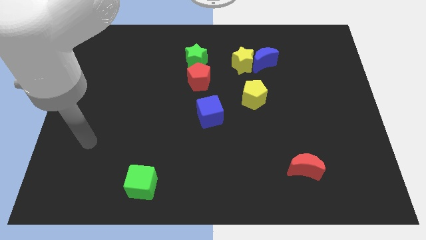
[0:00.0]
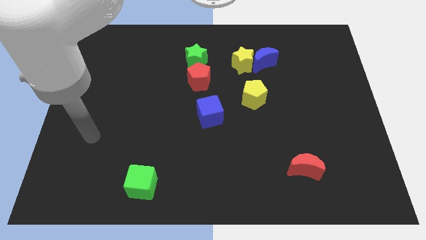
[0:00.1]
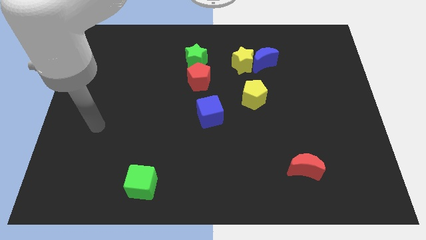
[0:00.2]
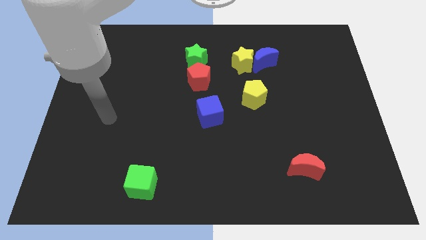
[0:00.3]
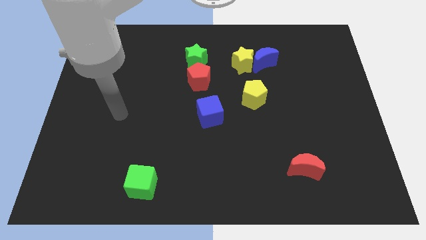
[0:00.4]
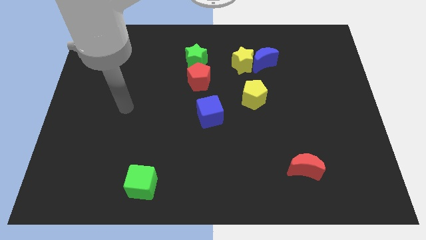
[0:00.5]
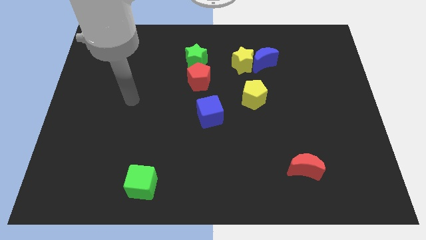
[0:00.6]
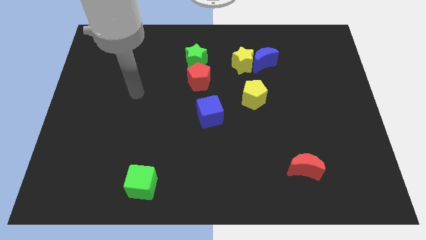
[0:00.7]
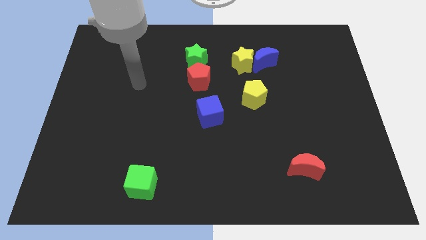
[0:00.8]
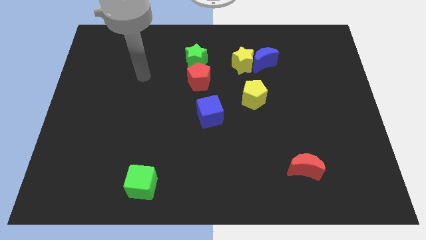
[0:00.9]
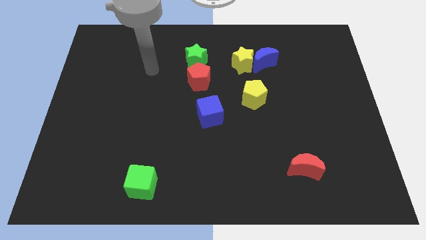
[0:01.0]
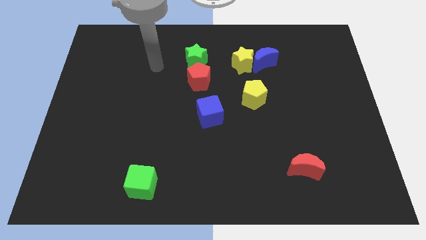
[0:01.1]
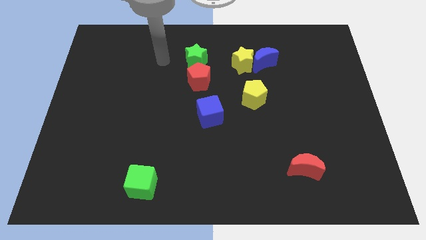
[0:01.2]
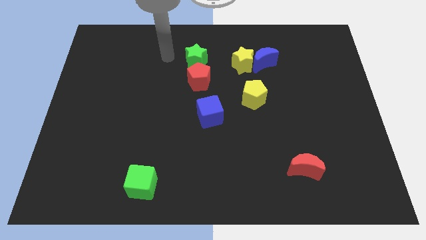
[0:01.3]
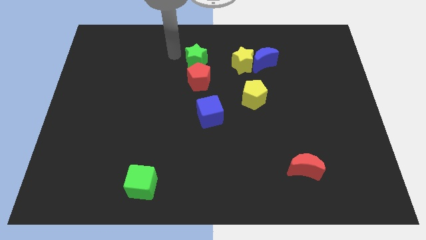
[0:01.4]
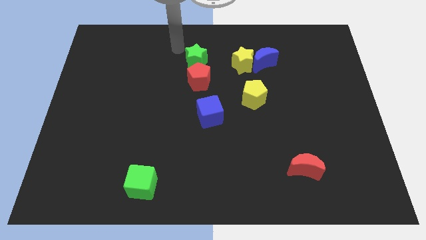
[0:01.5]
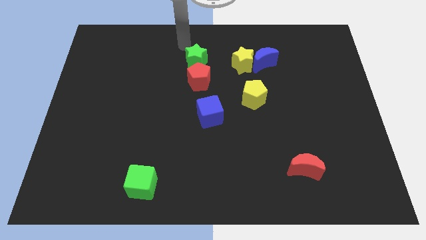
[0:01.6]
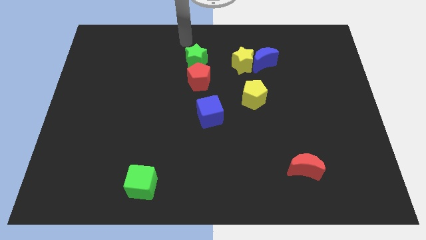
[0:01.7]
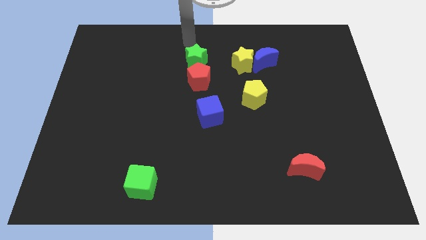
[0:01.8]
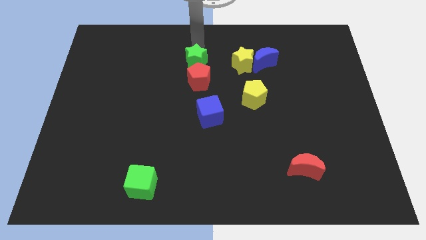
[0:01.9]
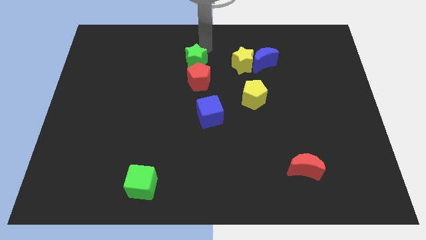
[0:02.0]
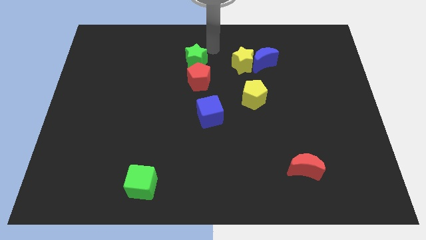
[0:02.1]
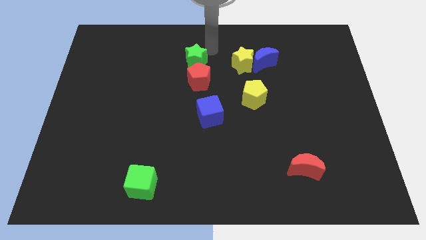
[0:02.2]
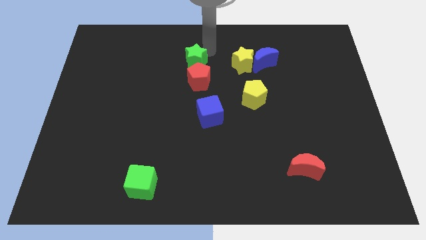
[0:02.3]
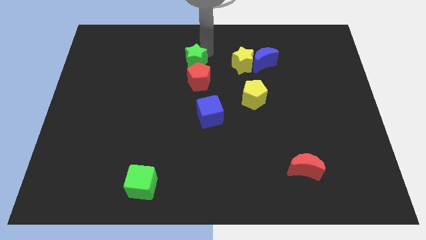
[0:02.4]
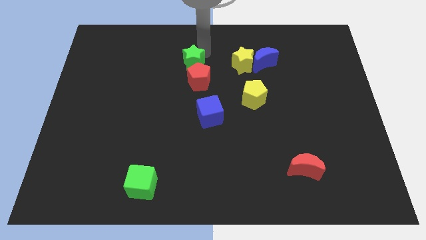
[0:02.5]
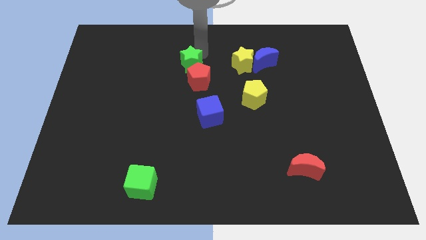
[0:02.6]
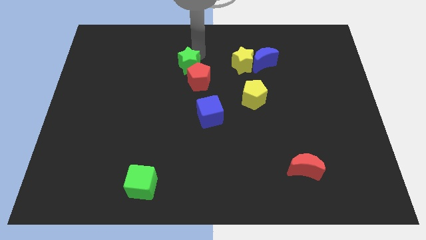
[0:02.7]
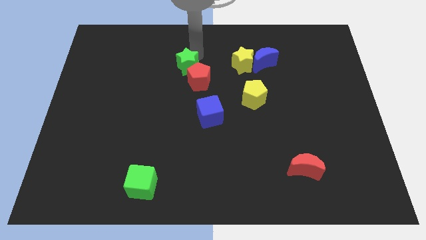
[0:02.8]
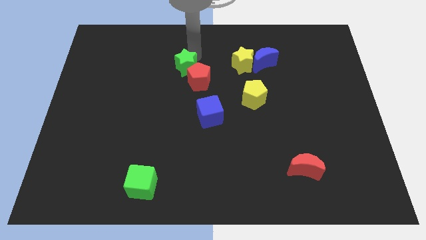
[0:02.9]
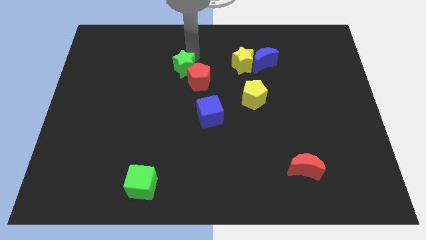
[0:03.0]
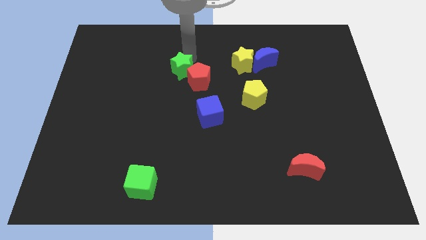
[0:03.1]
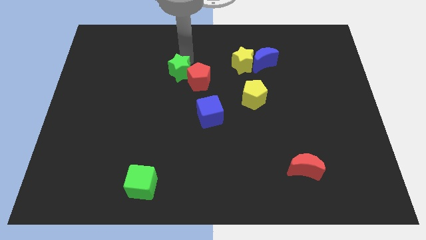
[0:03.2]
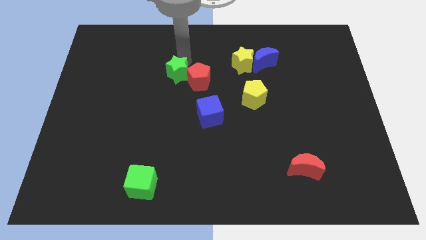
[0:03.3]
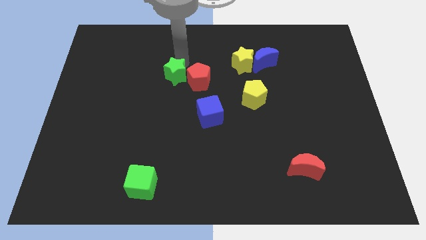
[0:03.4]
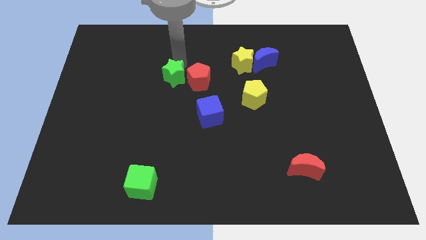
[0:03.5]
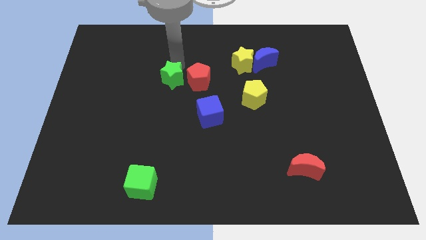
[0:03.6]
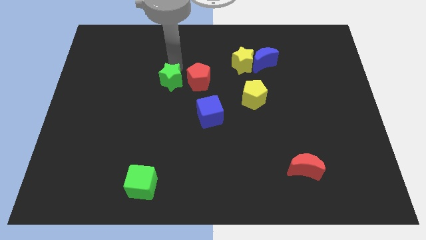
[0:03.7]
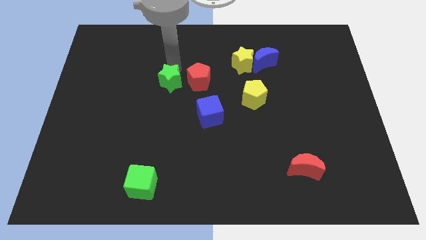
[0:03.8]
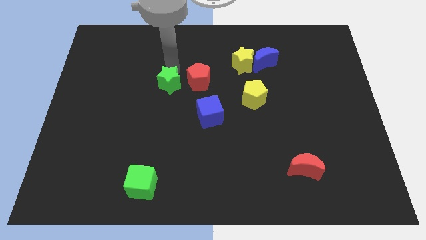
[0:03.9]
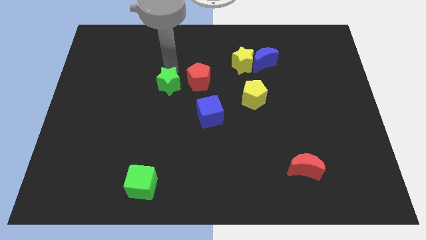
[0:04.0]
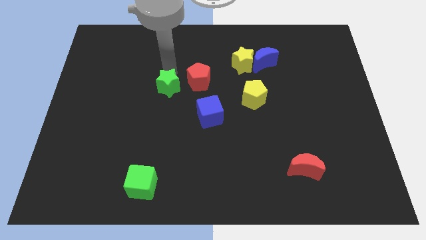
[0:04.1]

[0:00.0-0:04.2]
slightly slide the green star downwards

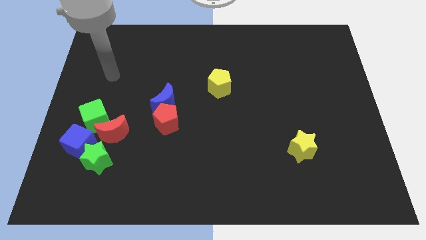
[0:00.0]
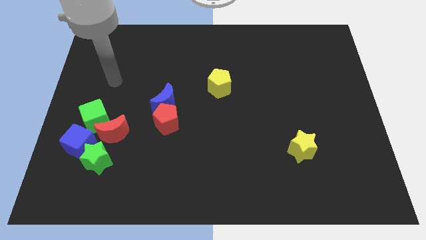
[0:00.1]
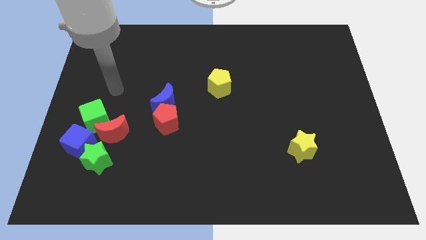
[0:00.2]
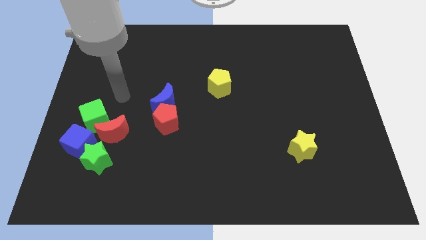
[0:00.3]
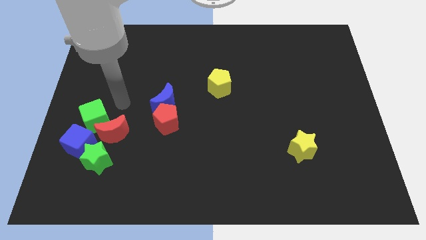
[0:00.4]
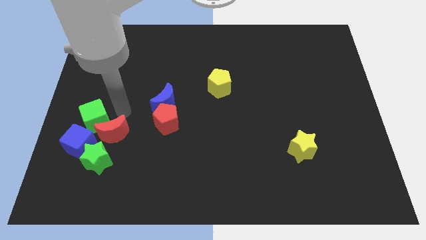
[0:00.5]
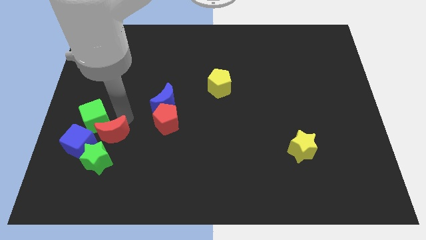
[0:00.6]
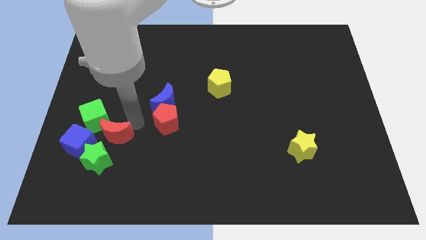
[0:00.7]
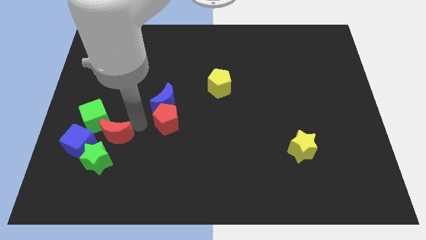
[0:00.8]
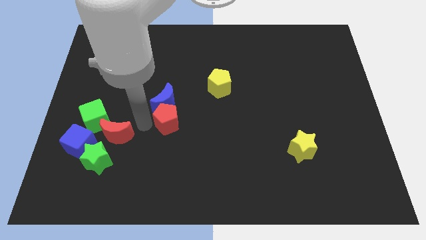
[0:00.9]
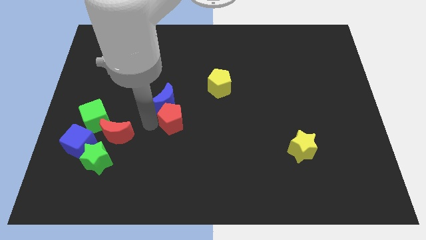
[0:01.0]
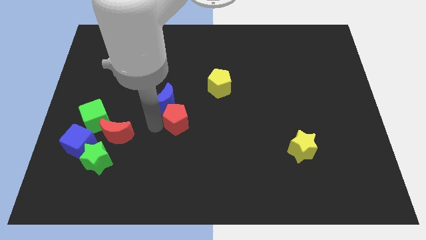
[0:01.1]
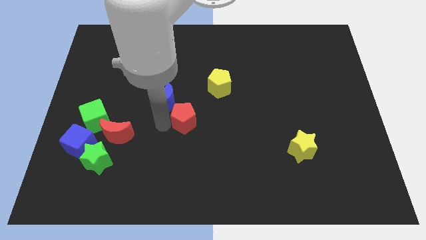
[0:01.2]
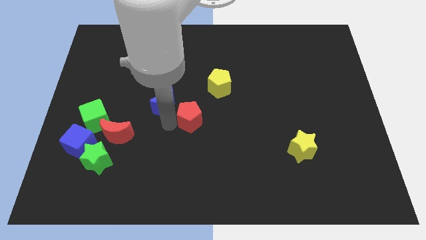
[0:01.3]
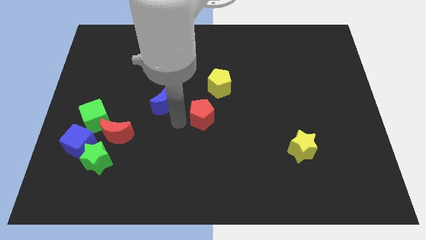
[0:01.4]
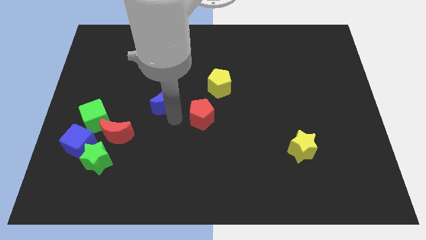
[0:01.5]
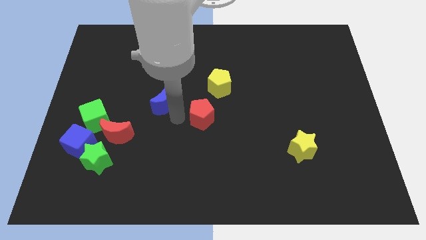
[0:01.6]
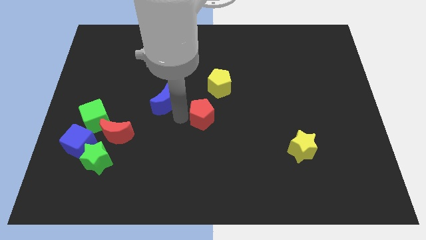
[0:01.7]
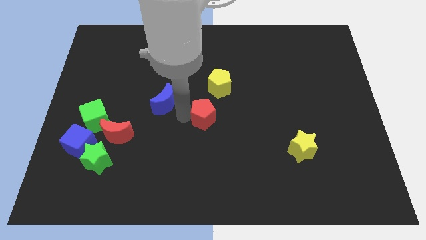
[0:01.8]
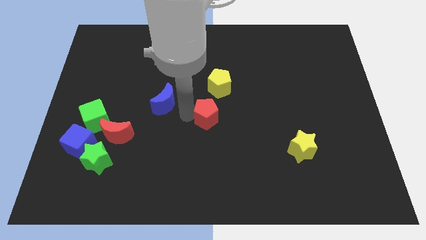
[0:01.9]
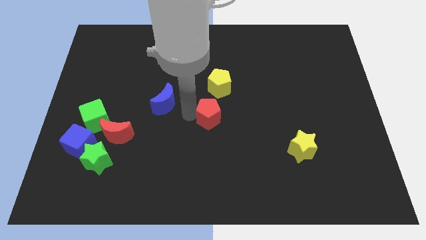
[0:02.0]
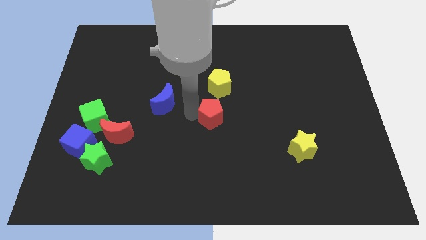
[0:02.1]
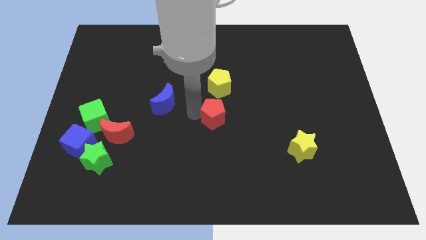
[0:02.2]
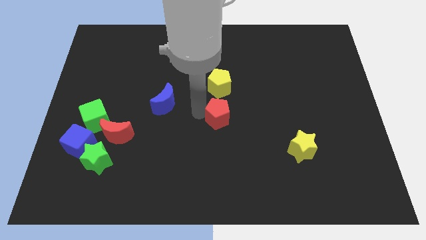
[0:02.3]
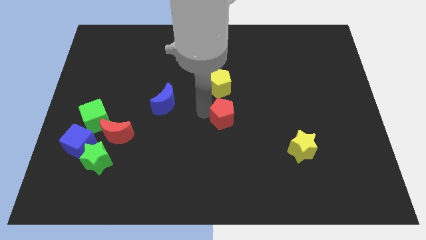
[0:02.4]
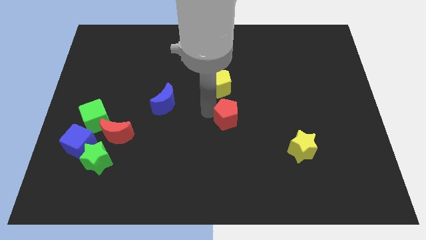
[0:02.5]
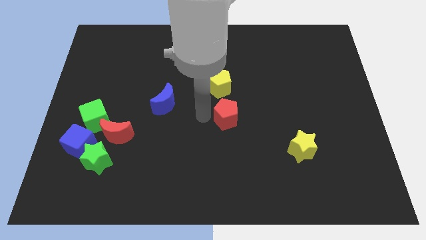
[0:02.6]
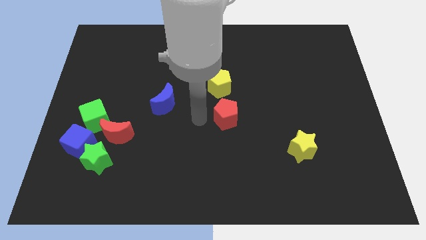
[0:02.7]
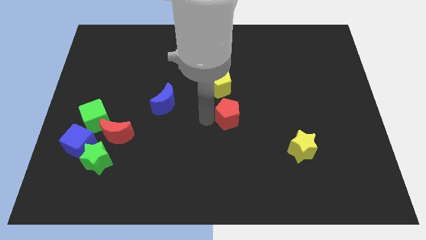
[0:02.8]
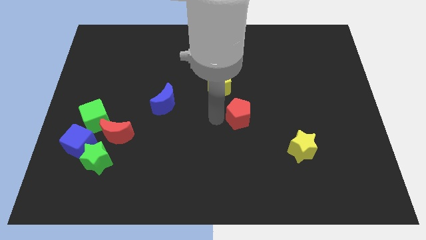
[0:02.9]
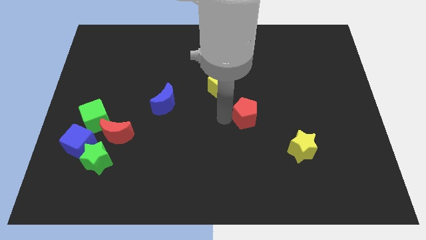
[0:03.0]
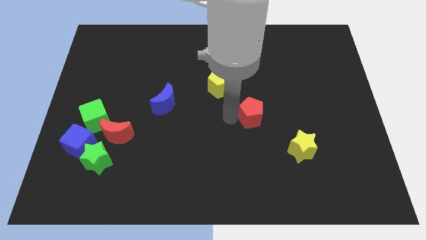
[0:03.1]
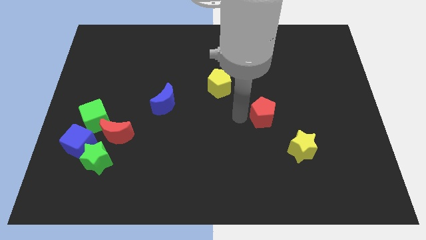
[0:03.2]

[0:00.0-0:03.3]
push the red pentagon right

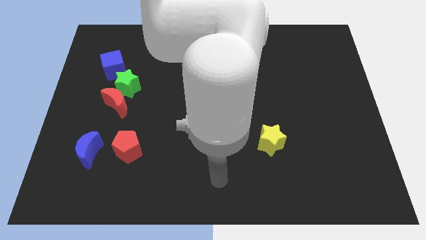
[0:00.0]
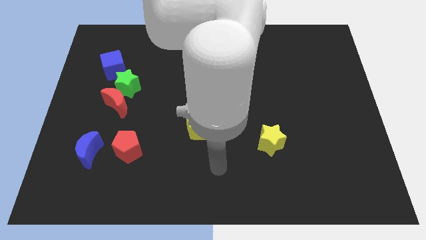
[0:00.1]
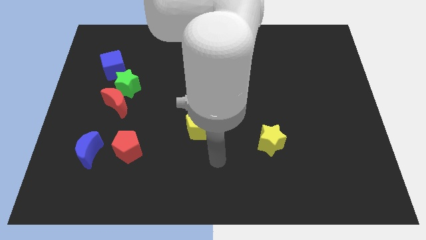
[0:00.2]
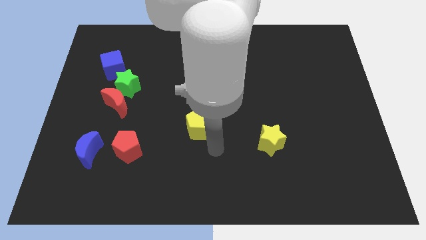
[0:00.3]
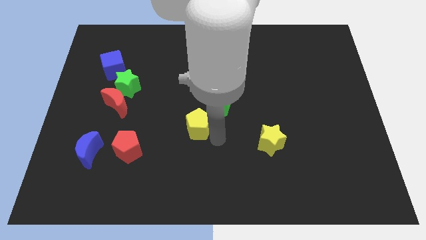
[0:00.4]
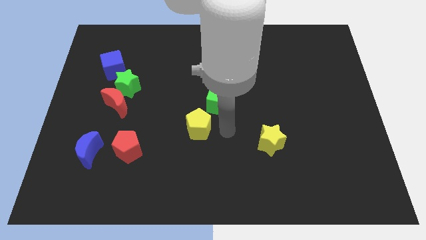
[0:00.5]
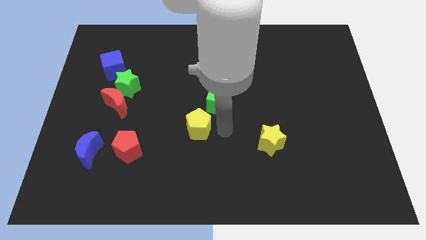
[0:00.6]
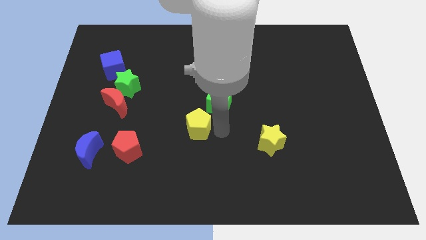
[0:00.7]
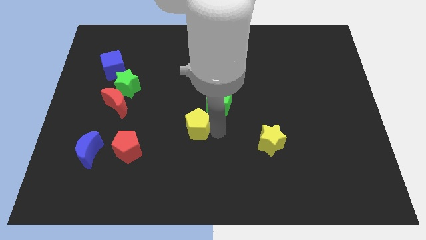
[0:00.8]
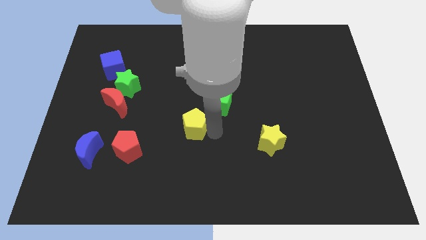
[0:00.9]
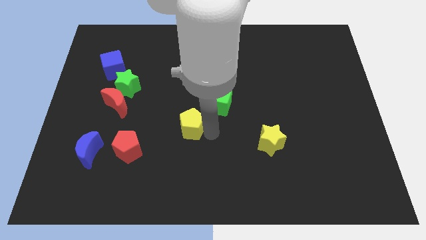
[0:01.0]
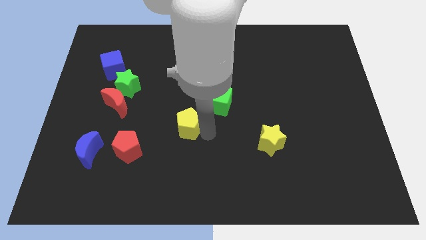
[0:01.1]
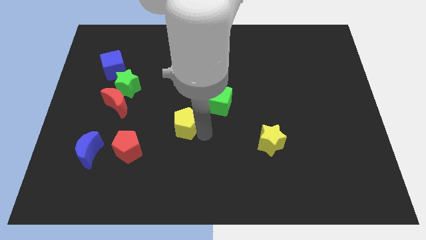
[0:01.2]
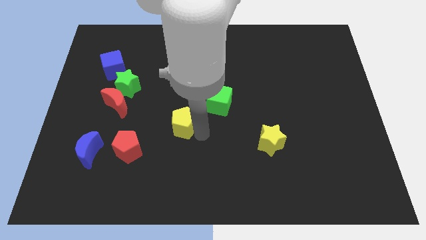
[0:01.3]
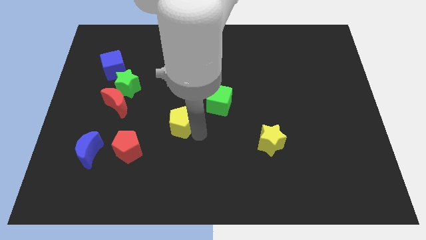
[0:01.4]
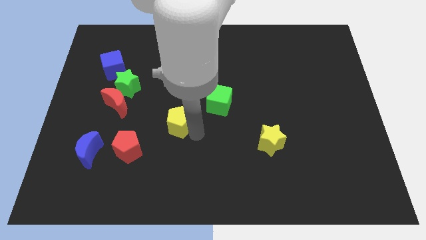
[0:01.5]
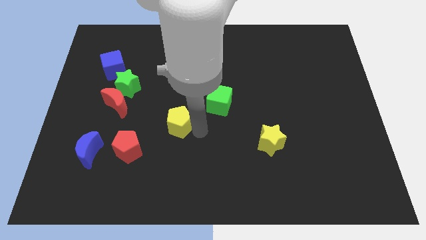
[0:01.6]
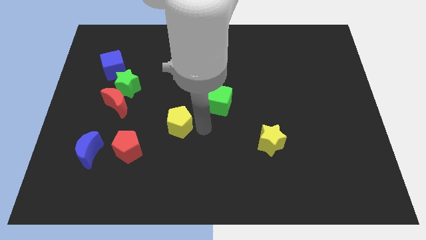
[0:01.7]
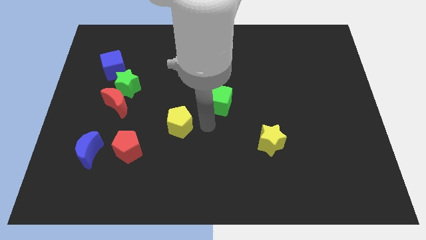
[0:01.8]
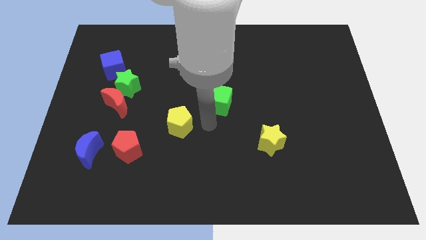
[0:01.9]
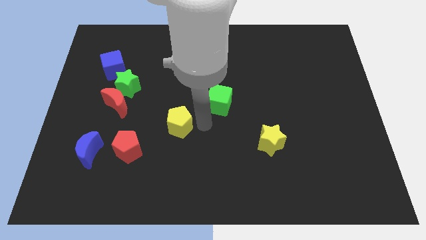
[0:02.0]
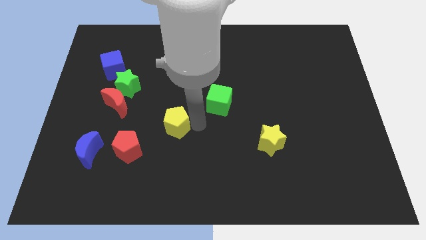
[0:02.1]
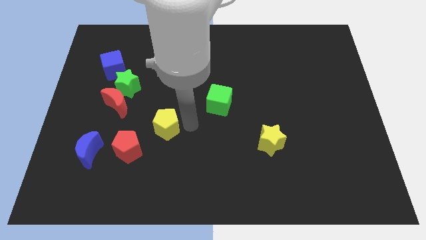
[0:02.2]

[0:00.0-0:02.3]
slide the yellow pentagon slightly left
